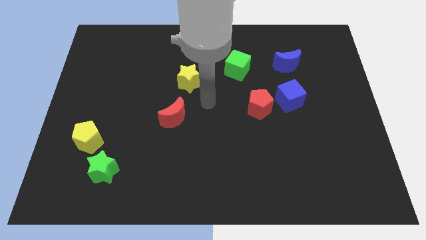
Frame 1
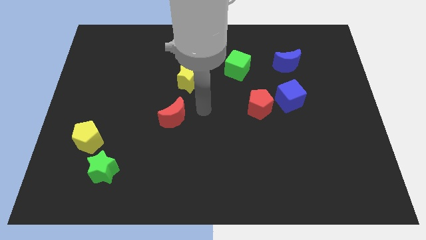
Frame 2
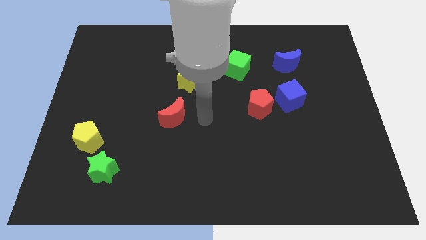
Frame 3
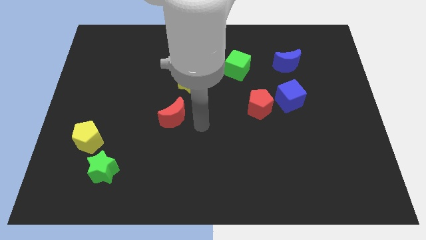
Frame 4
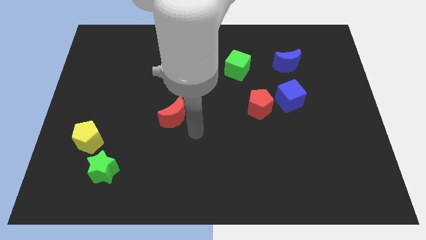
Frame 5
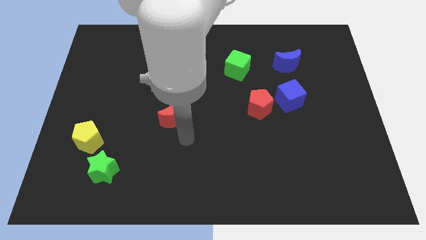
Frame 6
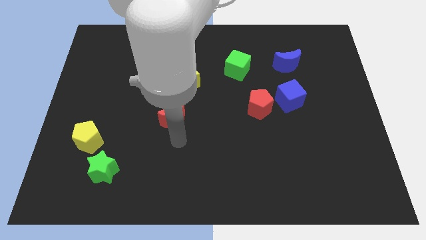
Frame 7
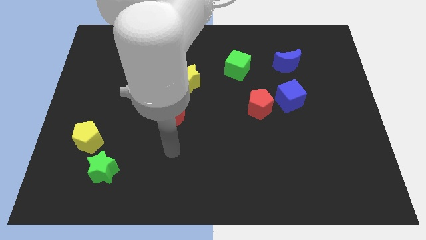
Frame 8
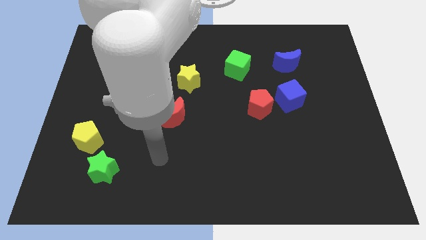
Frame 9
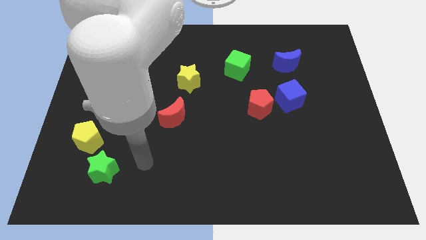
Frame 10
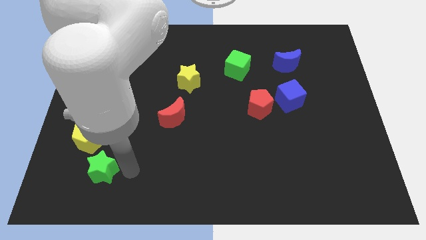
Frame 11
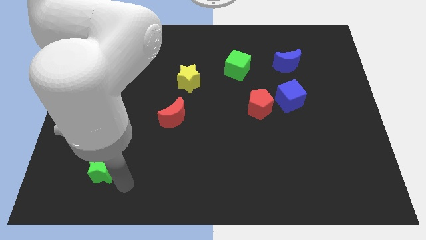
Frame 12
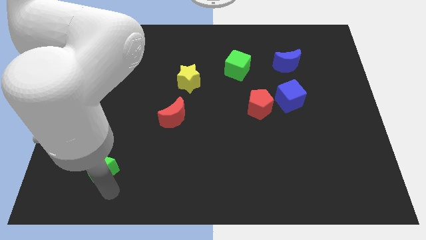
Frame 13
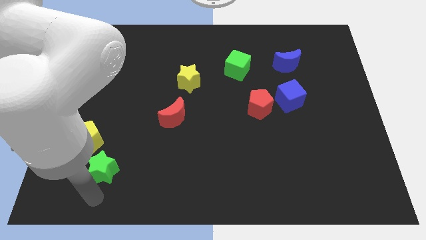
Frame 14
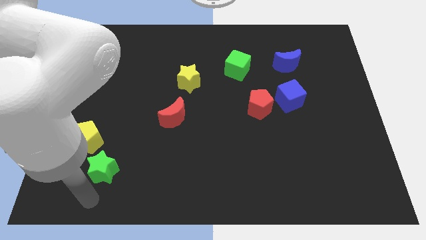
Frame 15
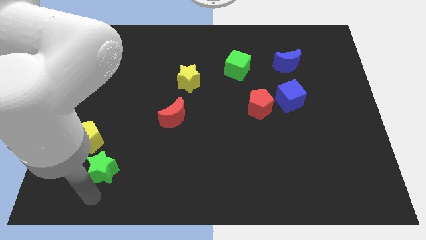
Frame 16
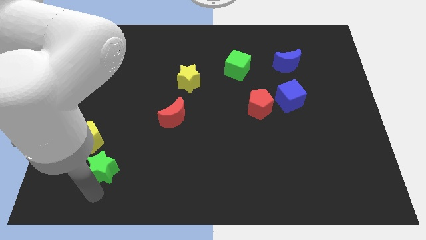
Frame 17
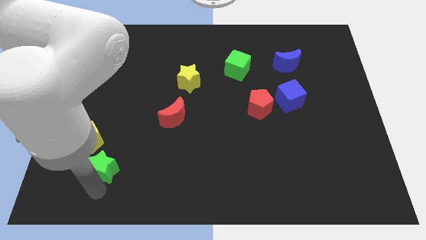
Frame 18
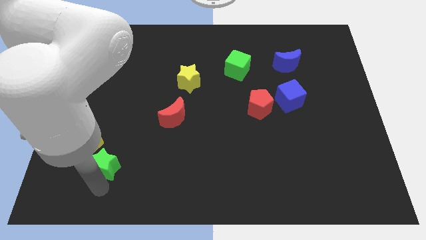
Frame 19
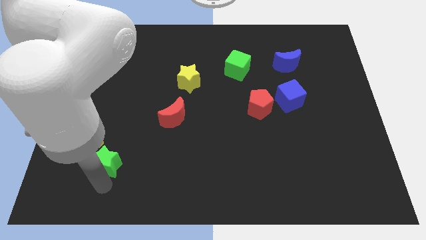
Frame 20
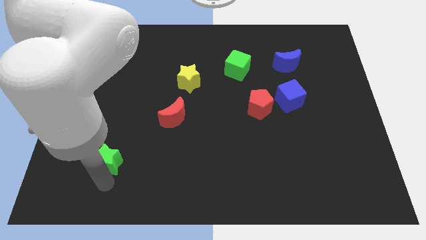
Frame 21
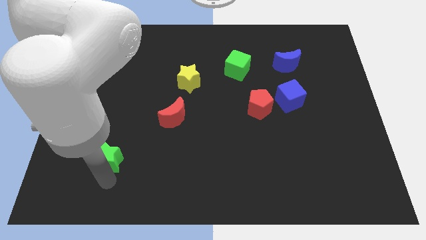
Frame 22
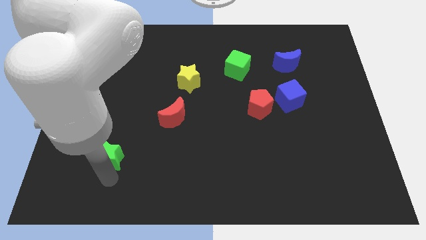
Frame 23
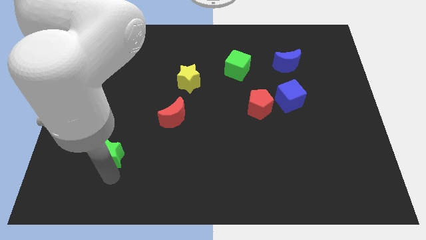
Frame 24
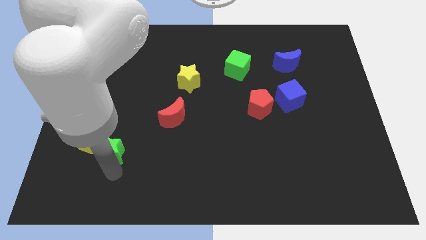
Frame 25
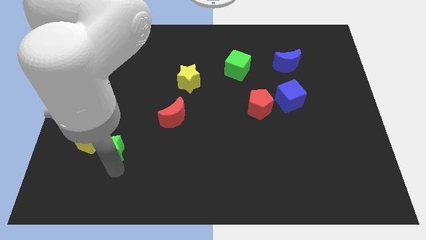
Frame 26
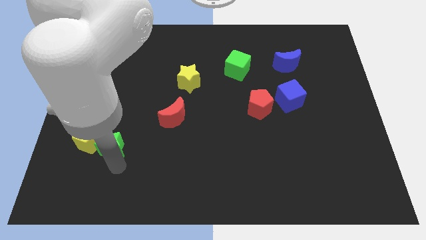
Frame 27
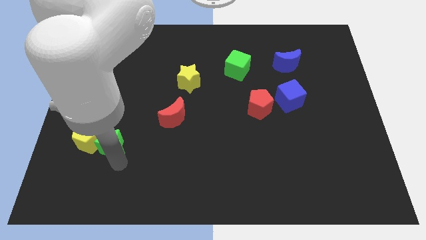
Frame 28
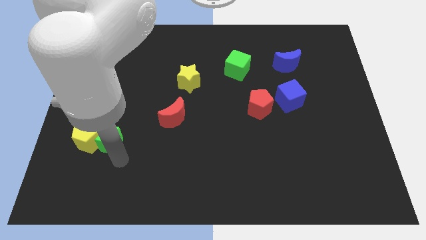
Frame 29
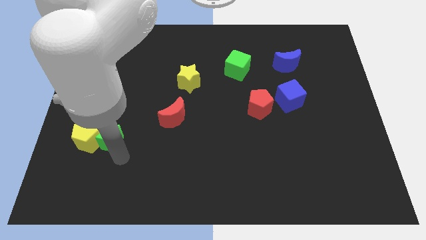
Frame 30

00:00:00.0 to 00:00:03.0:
push the green star upwards slightly

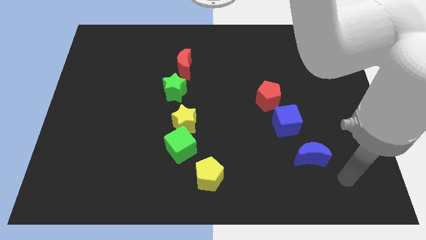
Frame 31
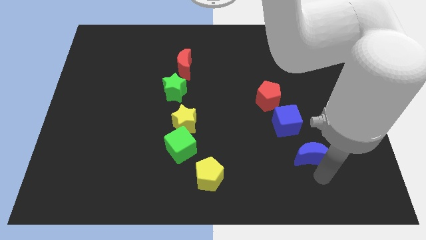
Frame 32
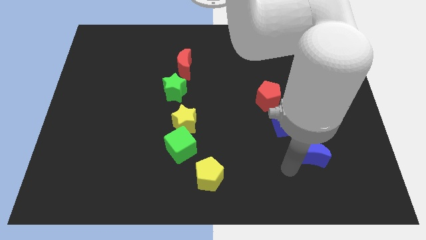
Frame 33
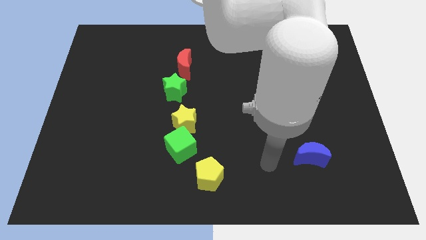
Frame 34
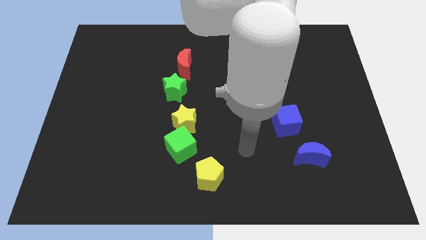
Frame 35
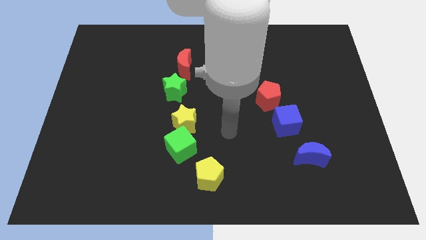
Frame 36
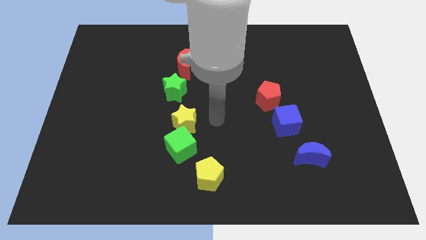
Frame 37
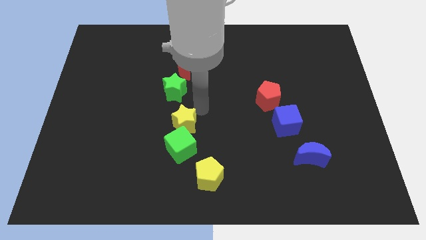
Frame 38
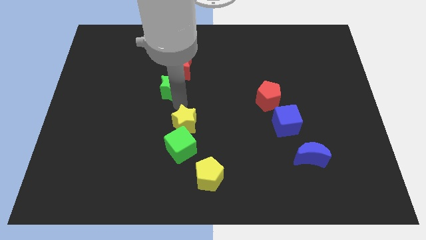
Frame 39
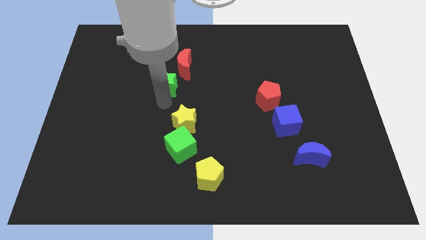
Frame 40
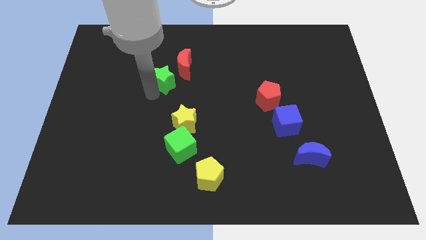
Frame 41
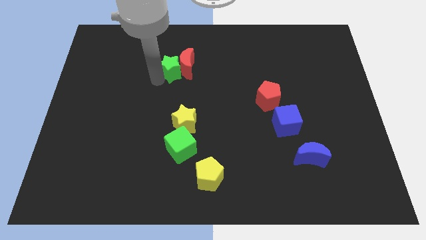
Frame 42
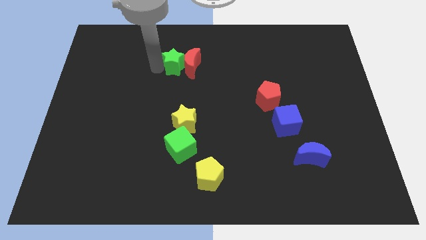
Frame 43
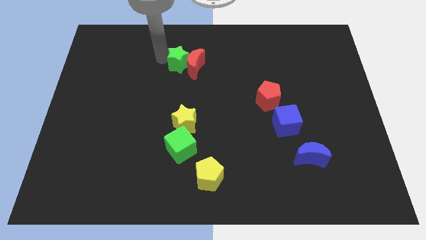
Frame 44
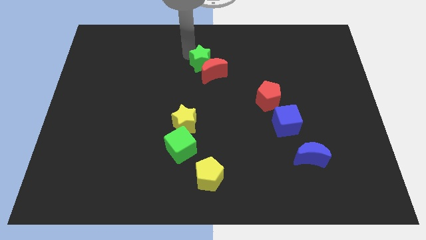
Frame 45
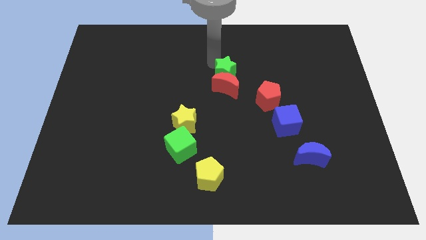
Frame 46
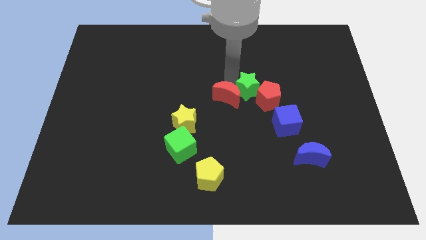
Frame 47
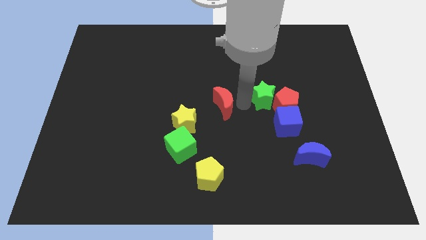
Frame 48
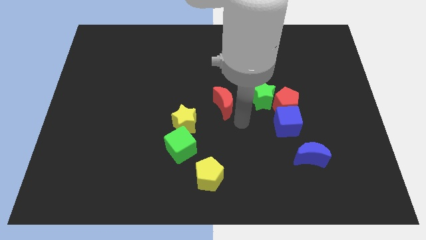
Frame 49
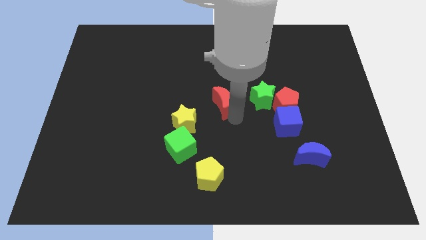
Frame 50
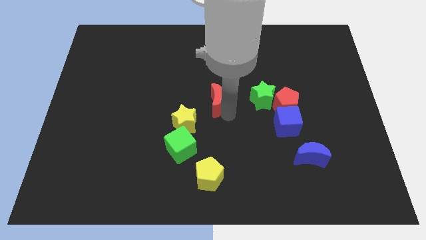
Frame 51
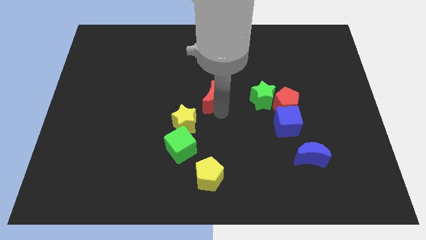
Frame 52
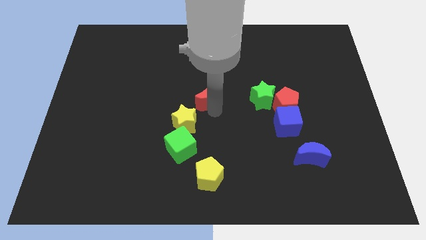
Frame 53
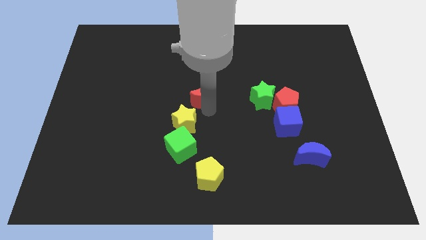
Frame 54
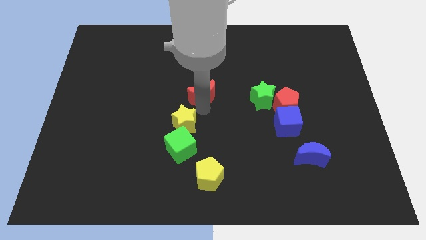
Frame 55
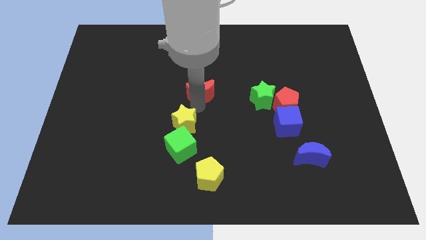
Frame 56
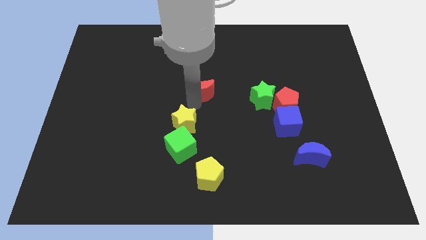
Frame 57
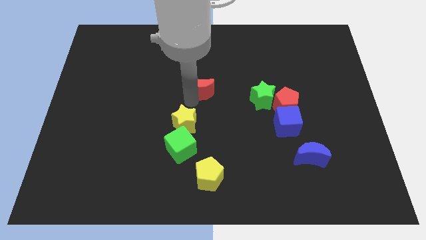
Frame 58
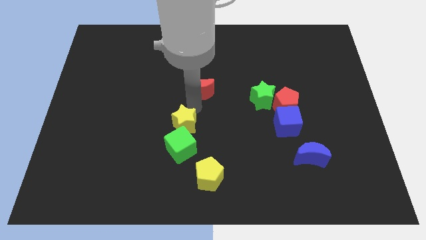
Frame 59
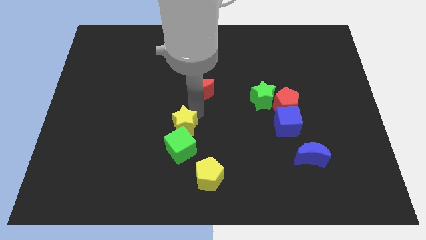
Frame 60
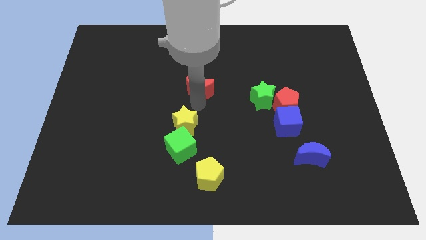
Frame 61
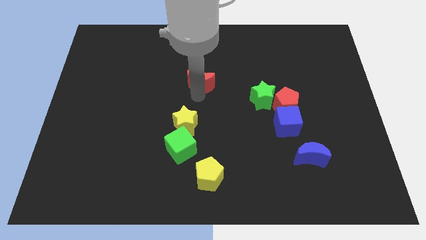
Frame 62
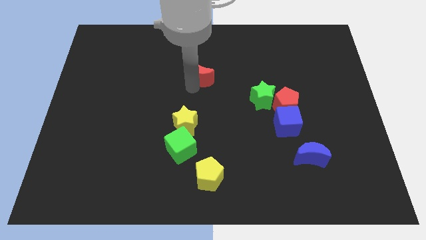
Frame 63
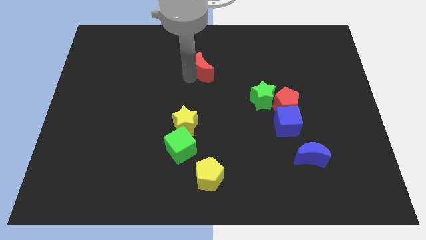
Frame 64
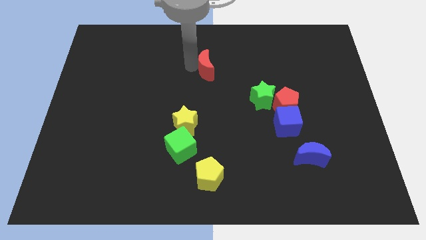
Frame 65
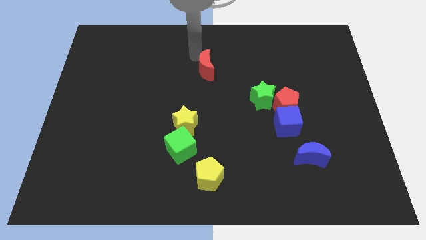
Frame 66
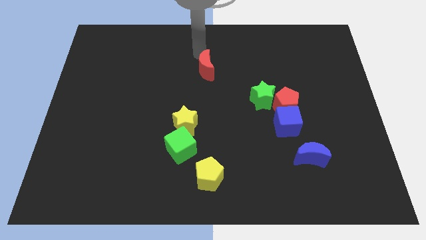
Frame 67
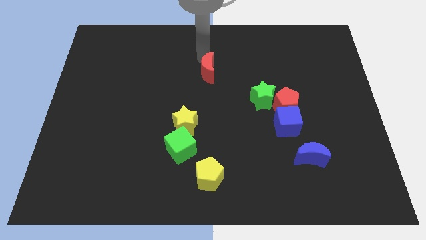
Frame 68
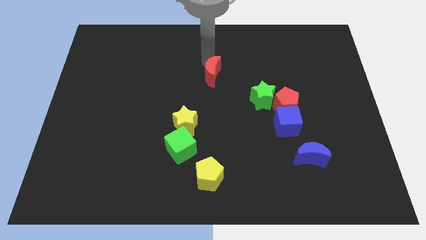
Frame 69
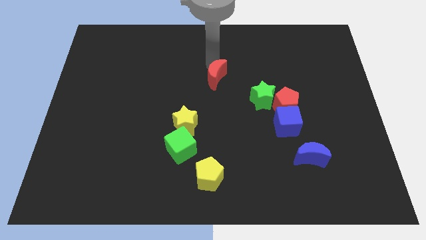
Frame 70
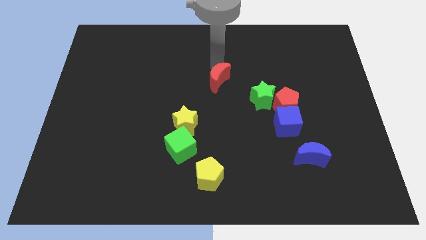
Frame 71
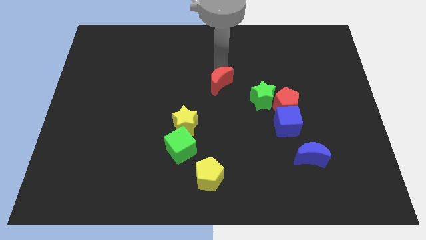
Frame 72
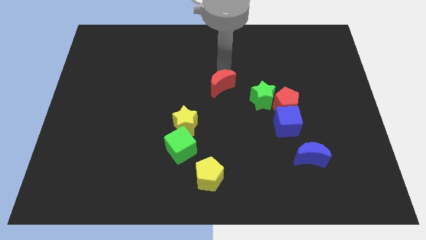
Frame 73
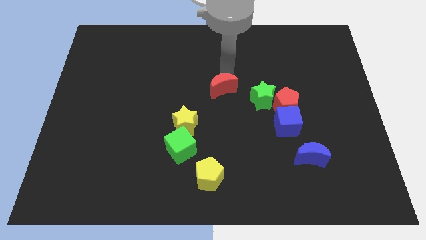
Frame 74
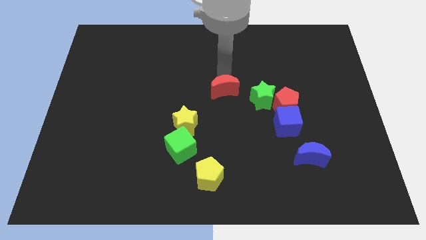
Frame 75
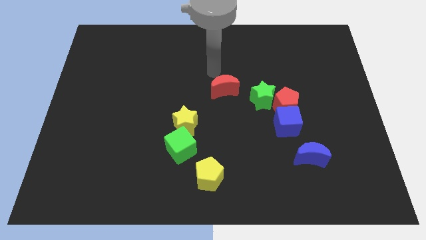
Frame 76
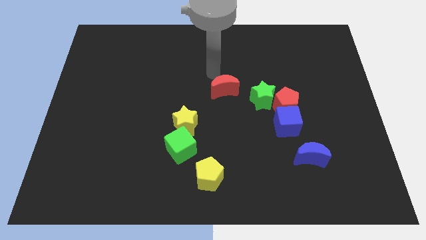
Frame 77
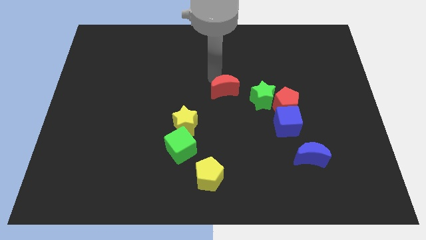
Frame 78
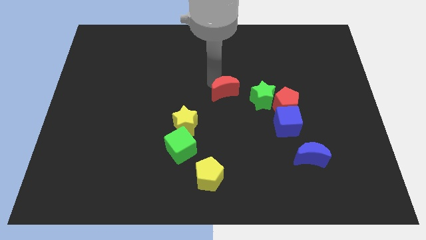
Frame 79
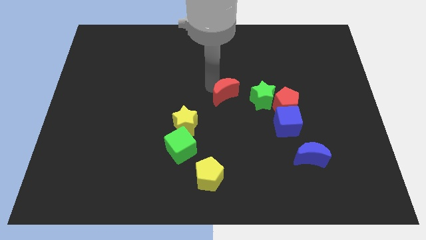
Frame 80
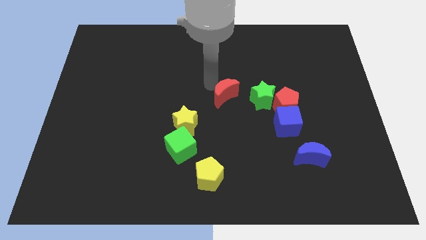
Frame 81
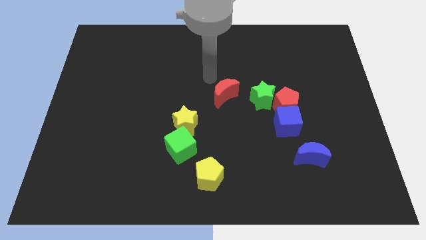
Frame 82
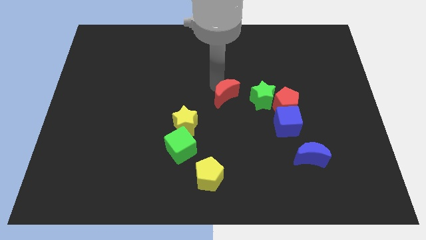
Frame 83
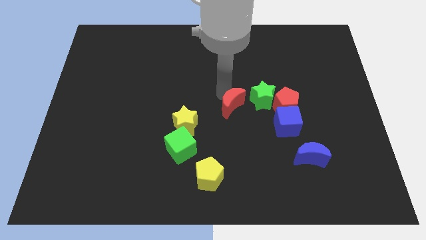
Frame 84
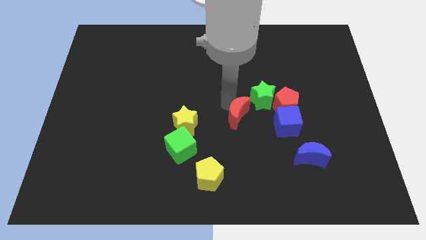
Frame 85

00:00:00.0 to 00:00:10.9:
move the red moon down and right diagonally
